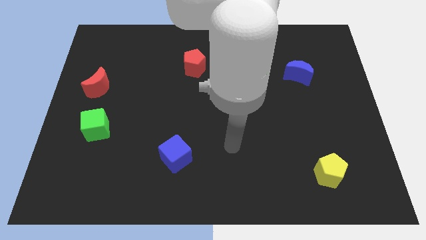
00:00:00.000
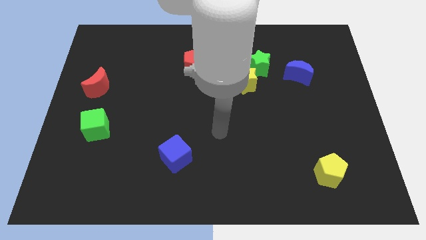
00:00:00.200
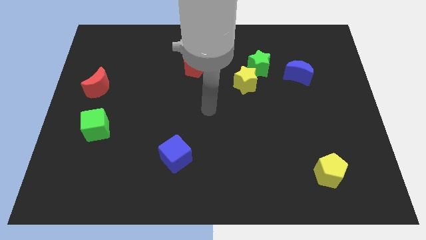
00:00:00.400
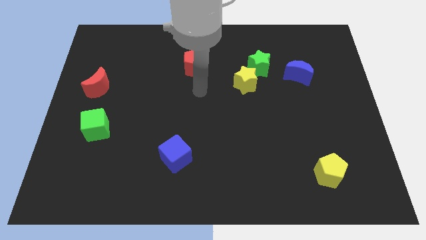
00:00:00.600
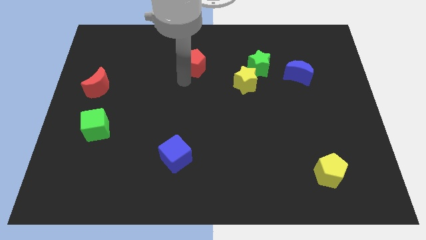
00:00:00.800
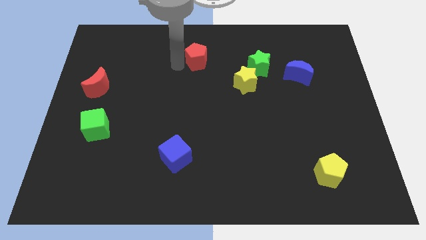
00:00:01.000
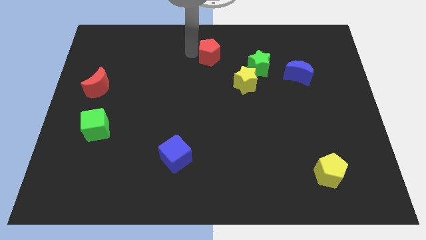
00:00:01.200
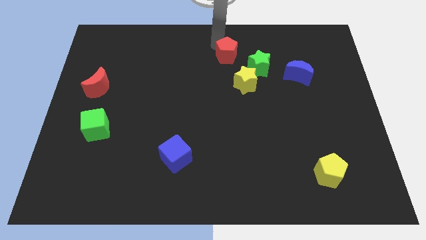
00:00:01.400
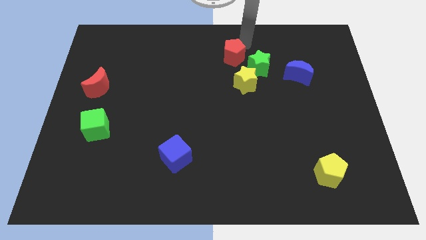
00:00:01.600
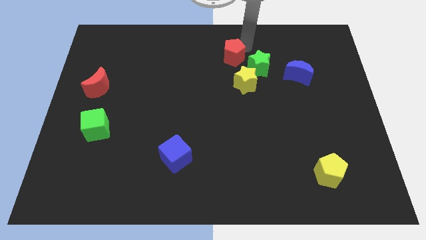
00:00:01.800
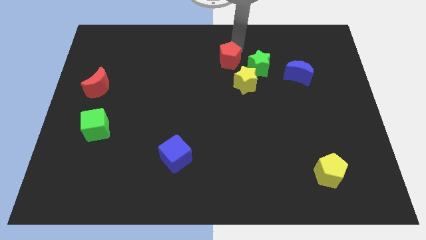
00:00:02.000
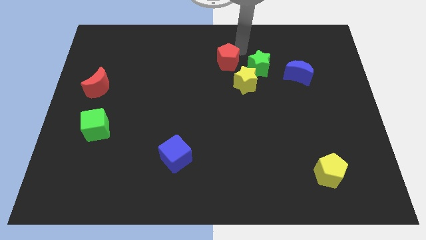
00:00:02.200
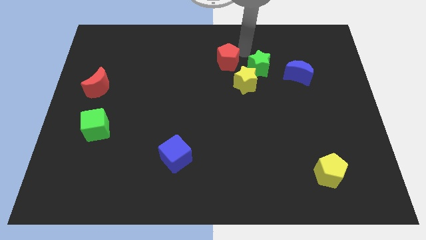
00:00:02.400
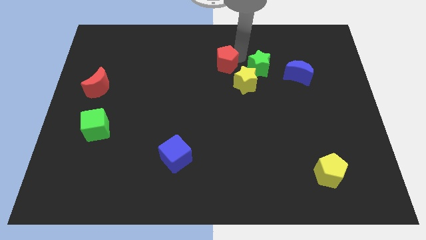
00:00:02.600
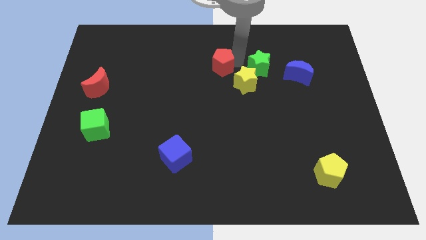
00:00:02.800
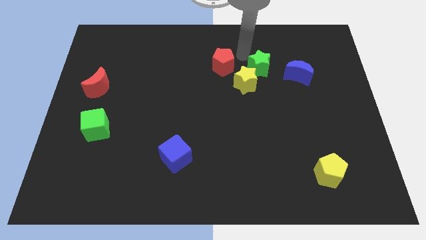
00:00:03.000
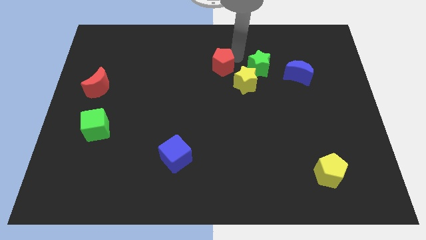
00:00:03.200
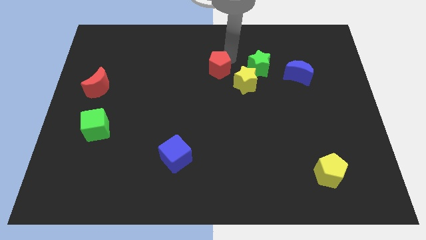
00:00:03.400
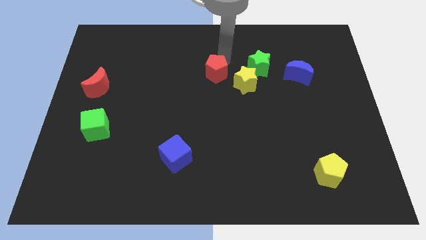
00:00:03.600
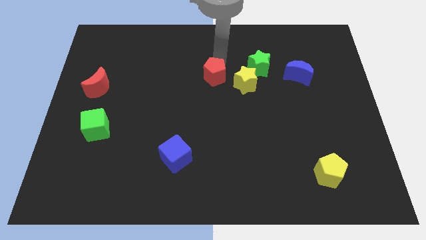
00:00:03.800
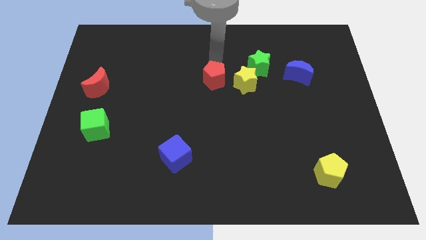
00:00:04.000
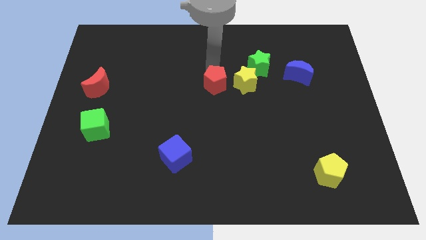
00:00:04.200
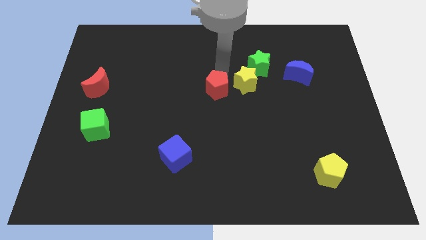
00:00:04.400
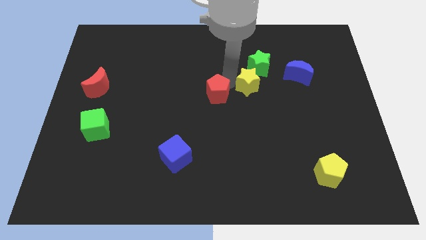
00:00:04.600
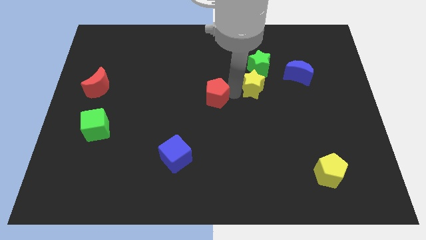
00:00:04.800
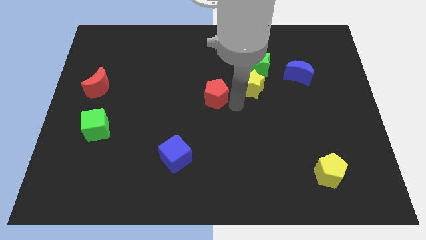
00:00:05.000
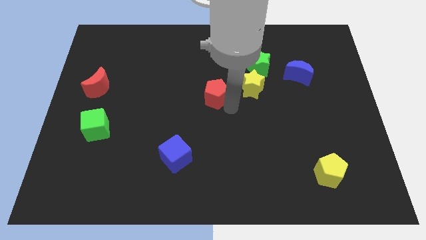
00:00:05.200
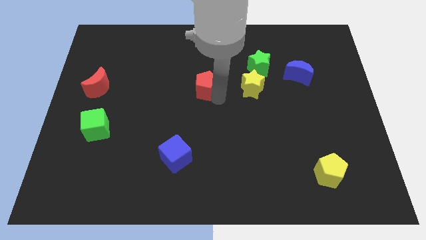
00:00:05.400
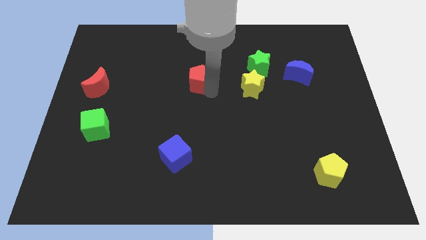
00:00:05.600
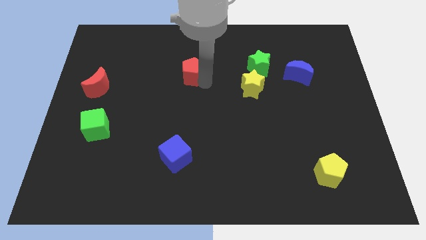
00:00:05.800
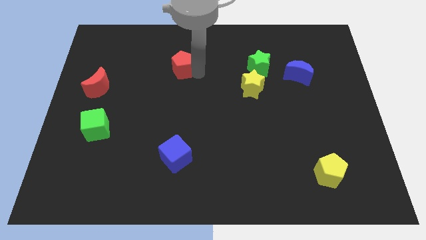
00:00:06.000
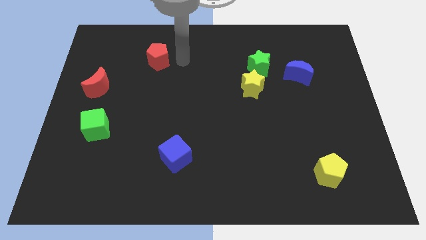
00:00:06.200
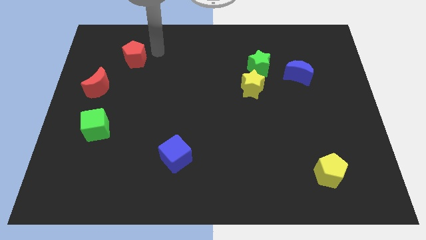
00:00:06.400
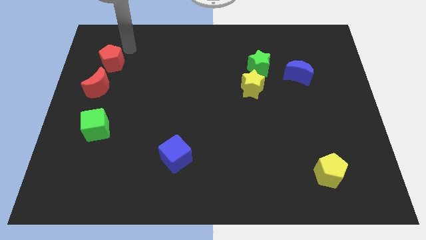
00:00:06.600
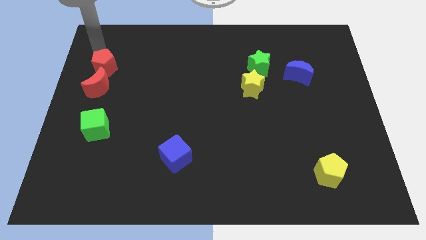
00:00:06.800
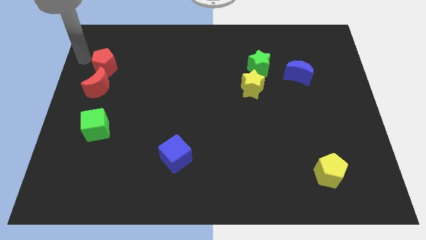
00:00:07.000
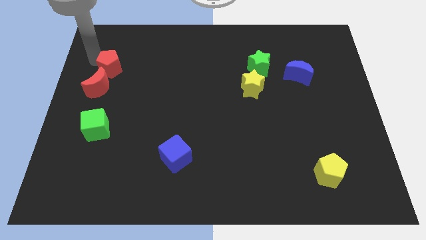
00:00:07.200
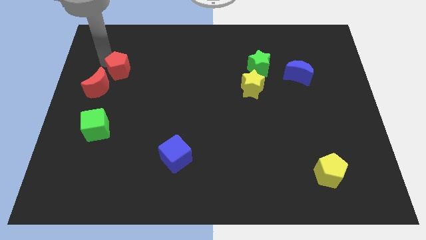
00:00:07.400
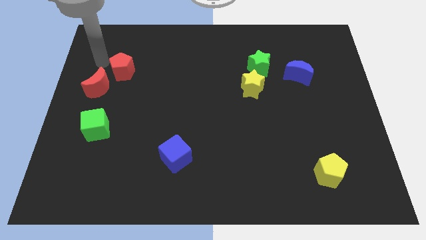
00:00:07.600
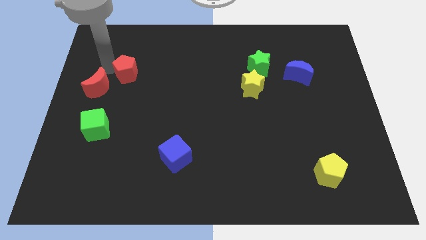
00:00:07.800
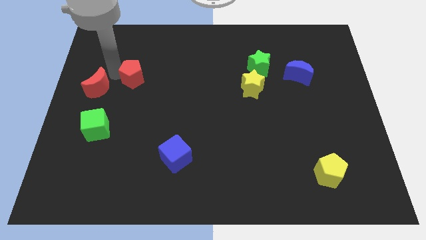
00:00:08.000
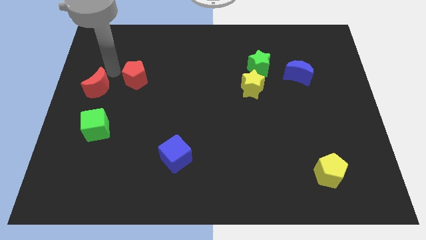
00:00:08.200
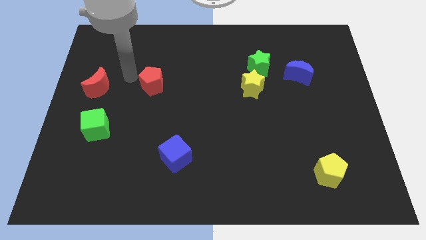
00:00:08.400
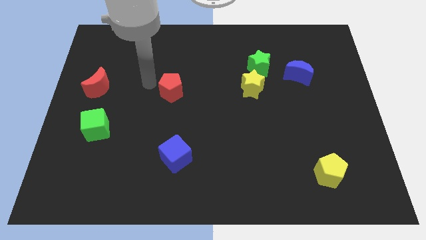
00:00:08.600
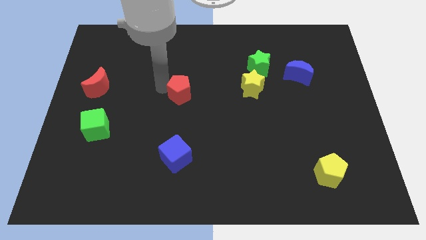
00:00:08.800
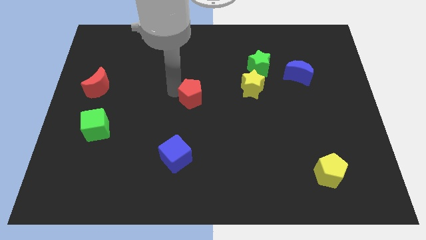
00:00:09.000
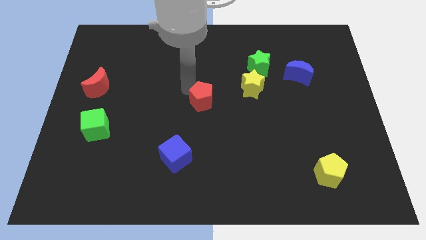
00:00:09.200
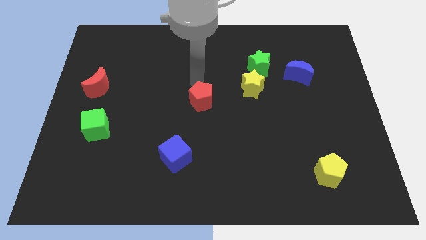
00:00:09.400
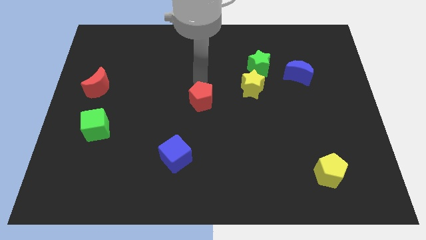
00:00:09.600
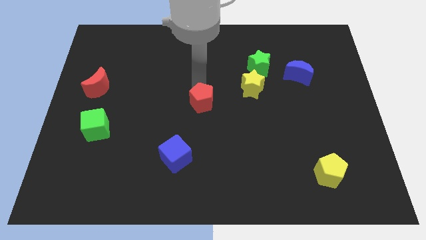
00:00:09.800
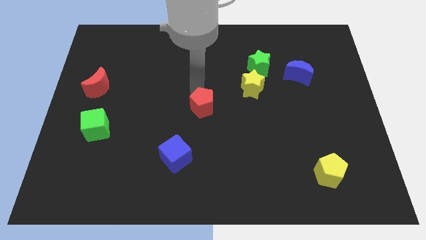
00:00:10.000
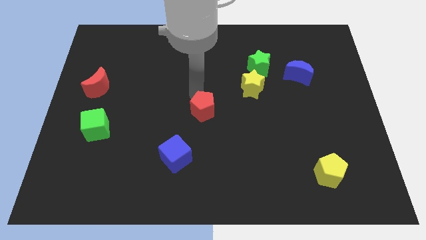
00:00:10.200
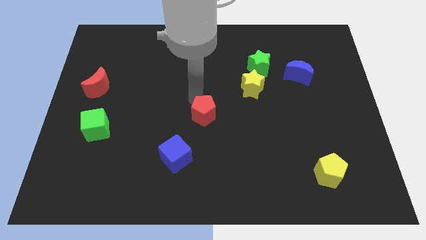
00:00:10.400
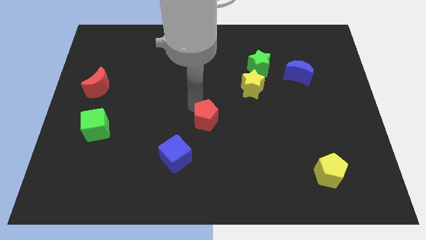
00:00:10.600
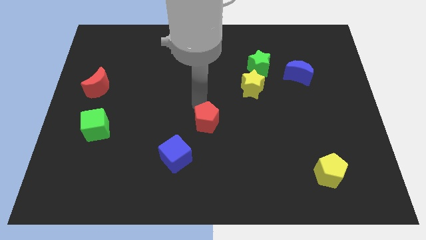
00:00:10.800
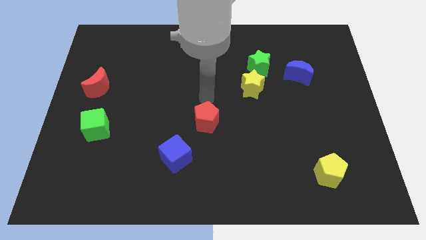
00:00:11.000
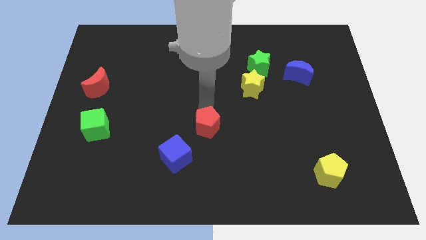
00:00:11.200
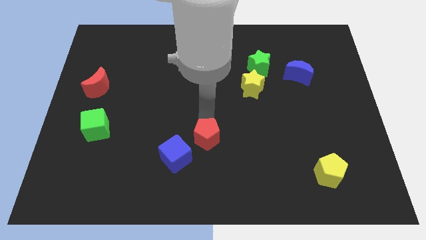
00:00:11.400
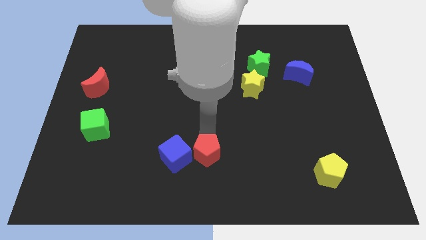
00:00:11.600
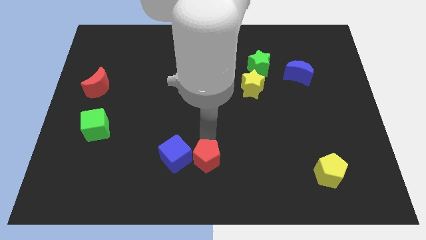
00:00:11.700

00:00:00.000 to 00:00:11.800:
push the red pentagon to the bottom

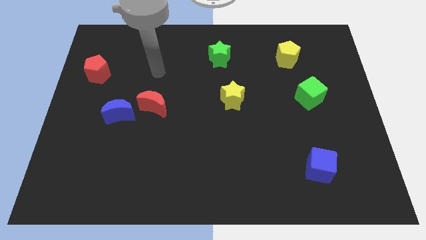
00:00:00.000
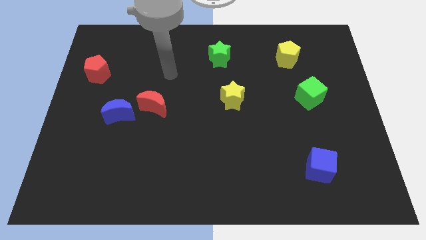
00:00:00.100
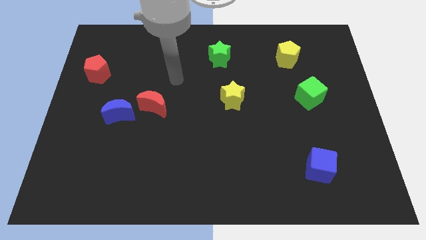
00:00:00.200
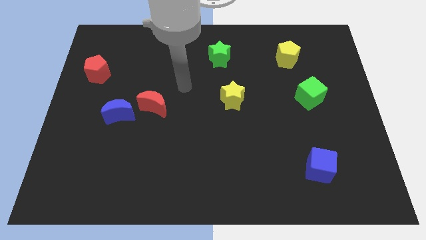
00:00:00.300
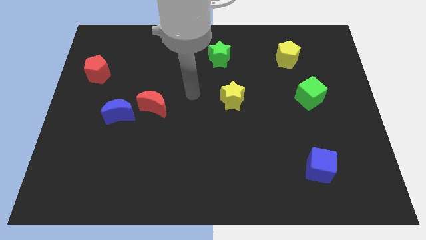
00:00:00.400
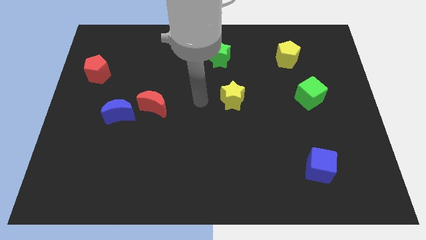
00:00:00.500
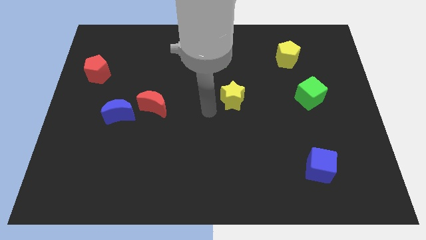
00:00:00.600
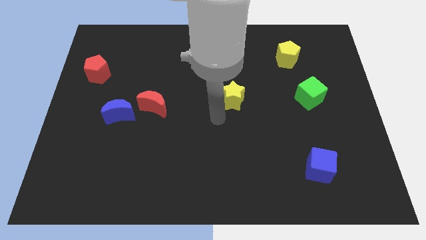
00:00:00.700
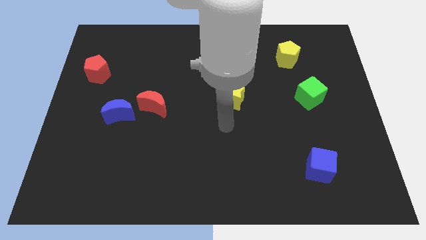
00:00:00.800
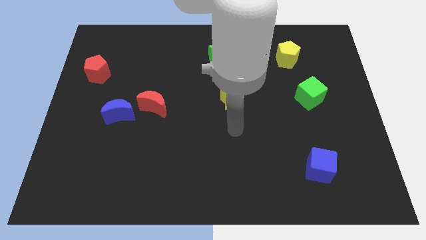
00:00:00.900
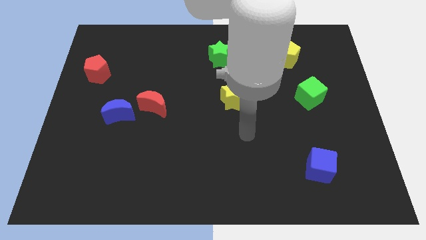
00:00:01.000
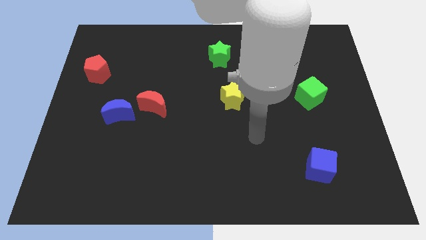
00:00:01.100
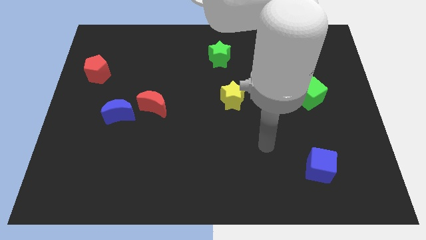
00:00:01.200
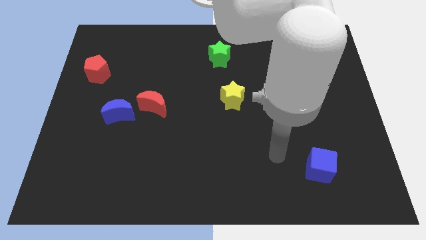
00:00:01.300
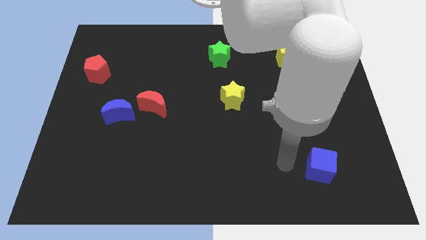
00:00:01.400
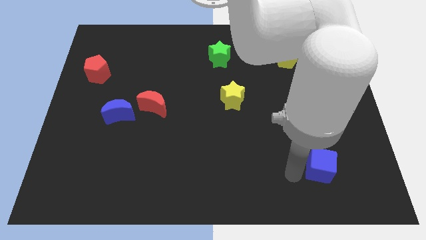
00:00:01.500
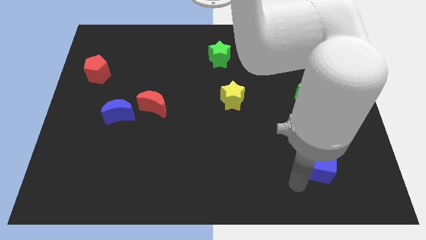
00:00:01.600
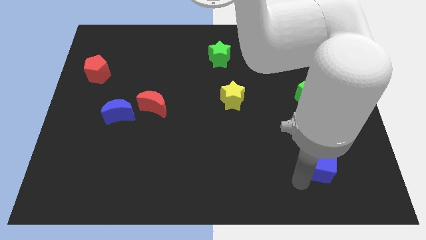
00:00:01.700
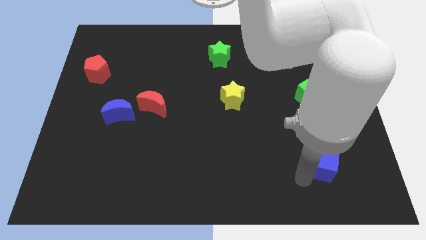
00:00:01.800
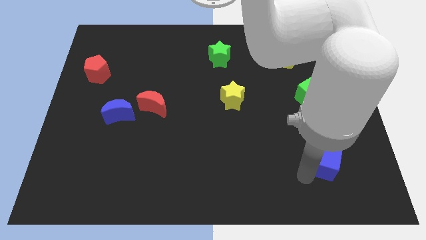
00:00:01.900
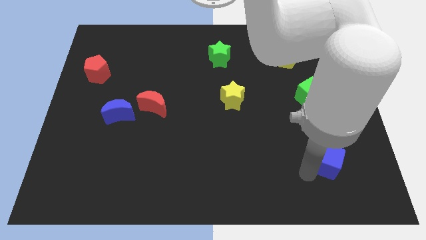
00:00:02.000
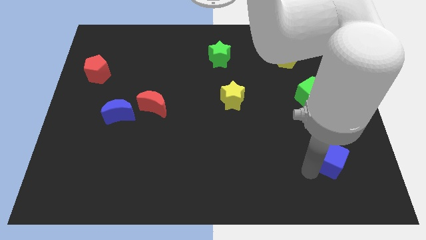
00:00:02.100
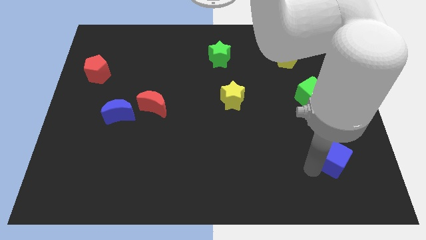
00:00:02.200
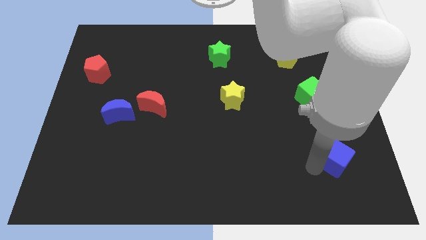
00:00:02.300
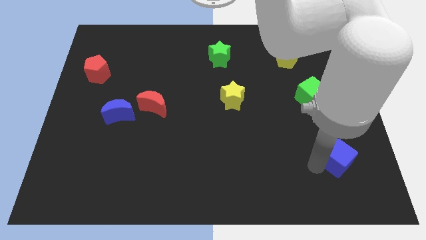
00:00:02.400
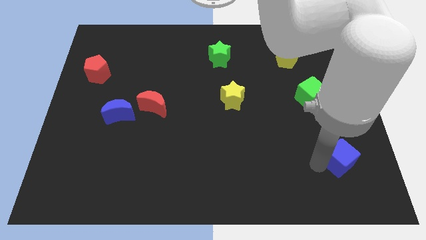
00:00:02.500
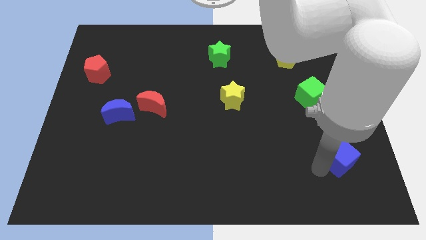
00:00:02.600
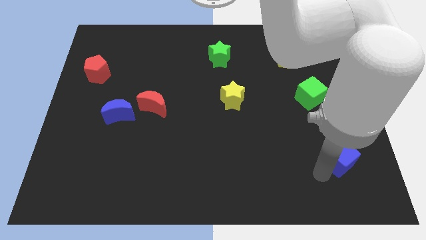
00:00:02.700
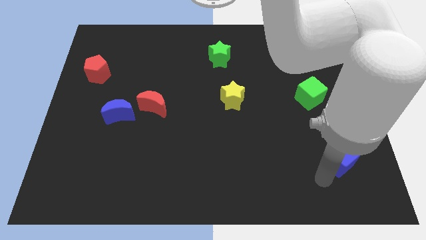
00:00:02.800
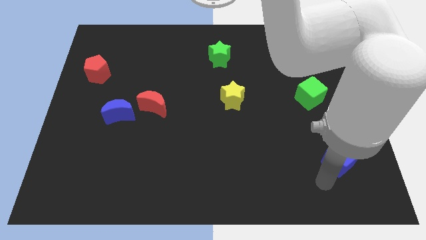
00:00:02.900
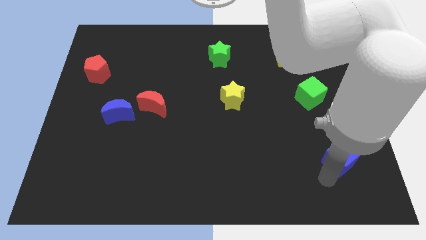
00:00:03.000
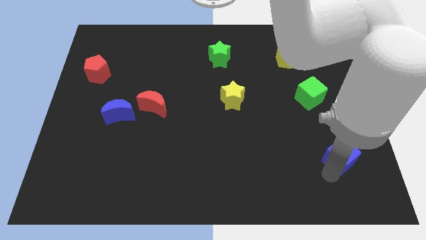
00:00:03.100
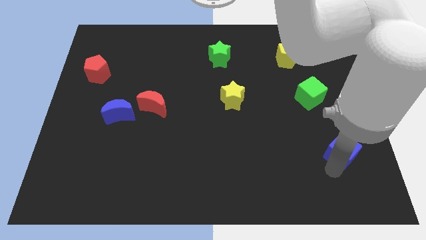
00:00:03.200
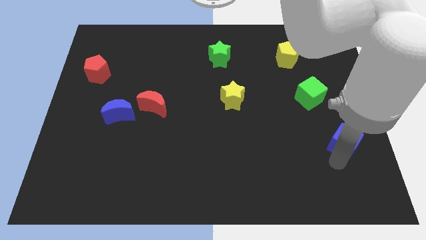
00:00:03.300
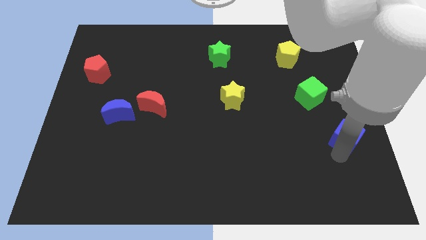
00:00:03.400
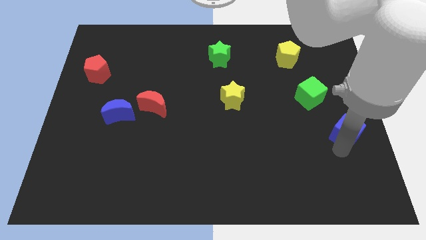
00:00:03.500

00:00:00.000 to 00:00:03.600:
put the blue cube to the center right
